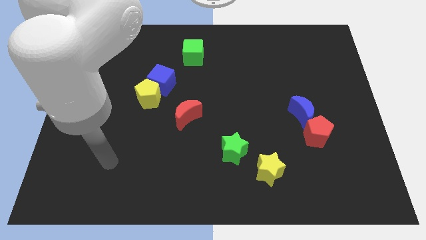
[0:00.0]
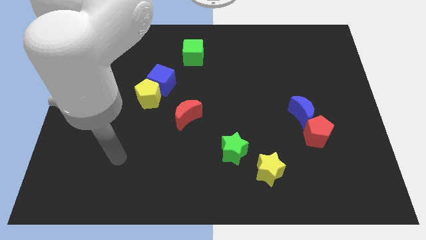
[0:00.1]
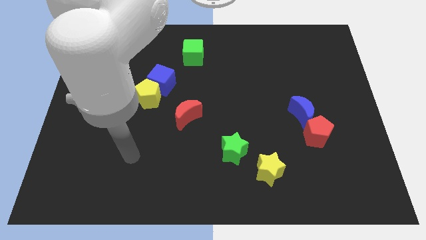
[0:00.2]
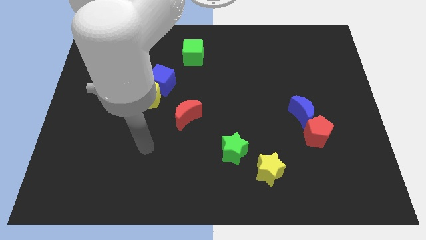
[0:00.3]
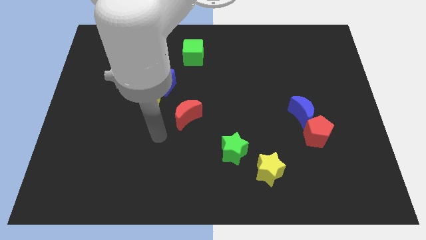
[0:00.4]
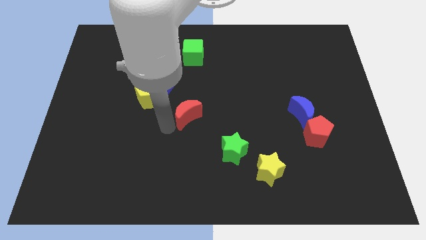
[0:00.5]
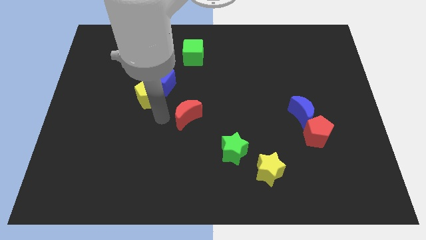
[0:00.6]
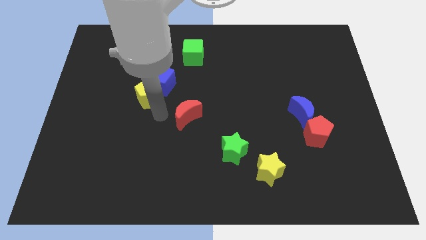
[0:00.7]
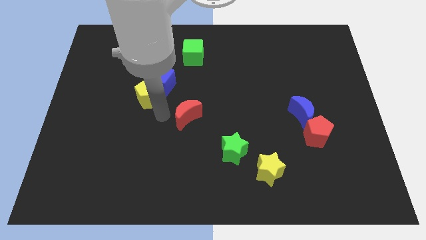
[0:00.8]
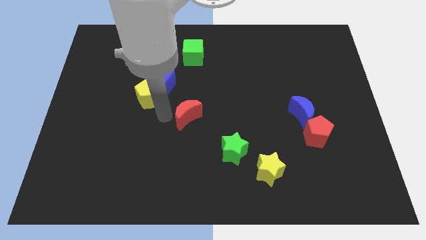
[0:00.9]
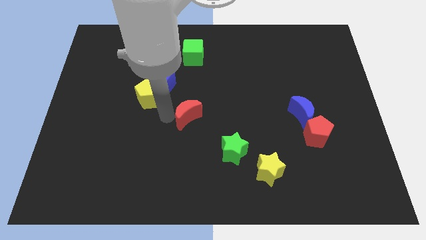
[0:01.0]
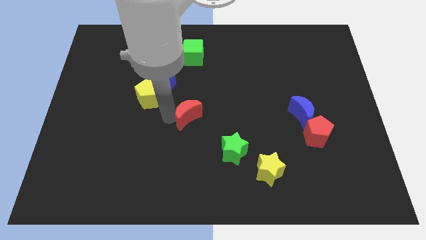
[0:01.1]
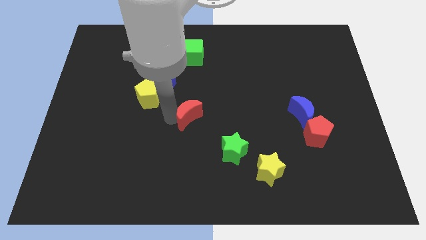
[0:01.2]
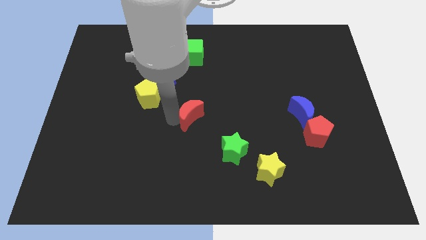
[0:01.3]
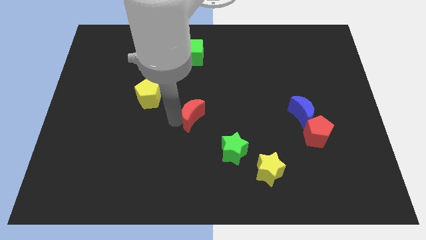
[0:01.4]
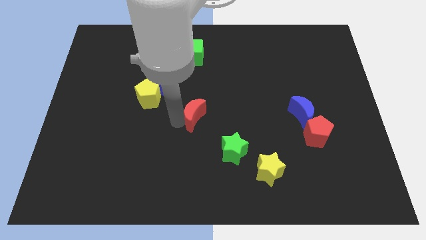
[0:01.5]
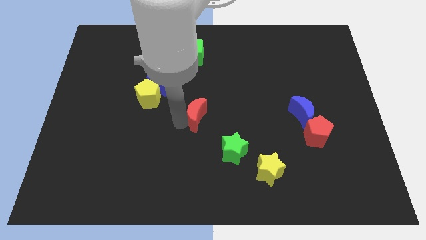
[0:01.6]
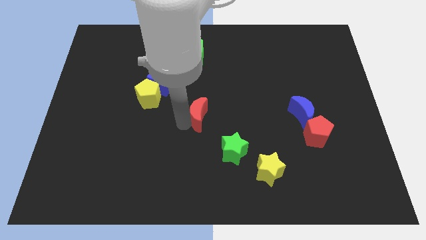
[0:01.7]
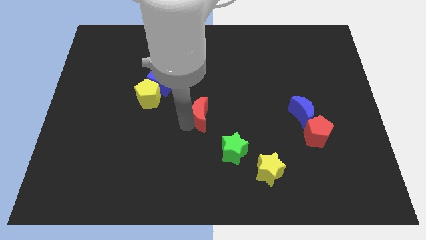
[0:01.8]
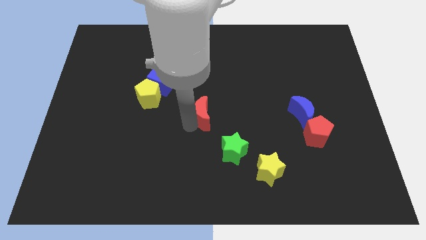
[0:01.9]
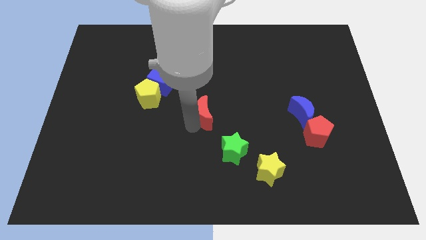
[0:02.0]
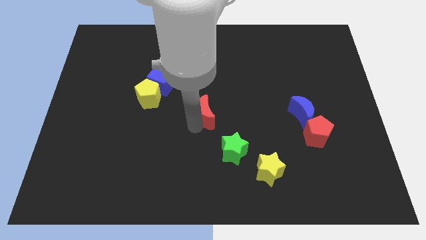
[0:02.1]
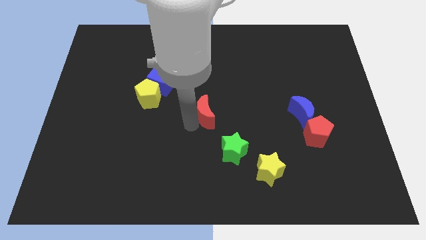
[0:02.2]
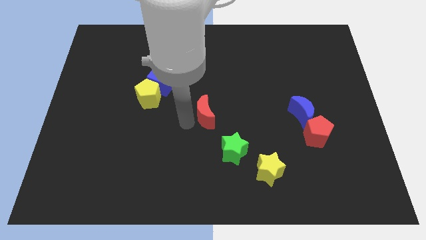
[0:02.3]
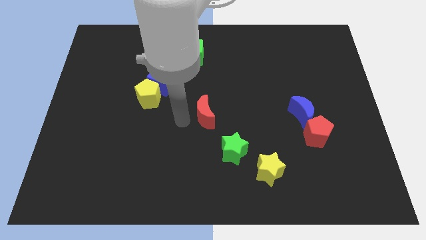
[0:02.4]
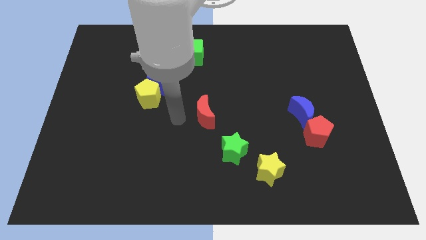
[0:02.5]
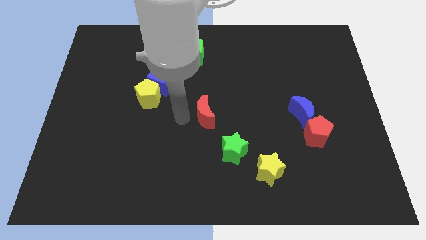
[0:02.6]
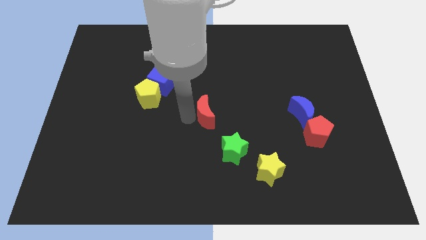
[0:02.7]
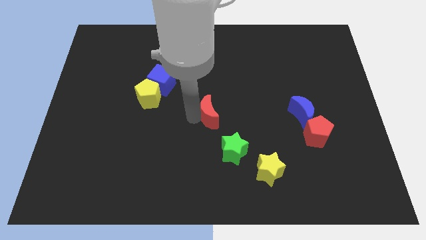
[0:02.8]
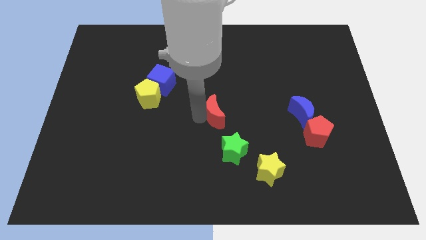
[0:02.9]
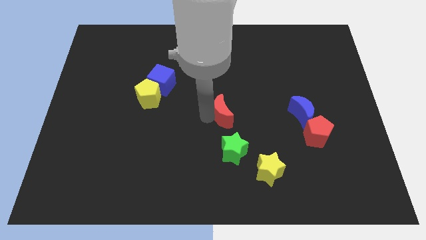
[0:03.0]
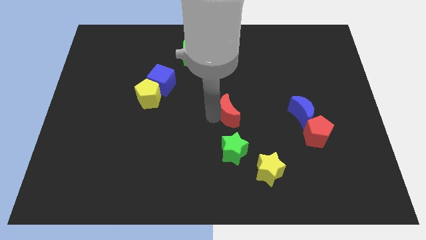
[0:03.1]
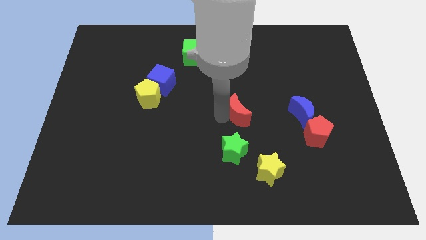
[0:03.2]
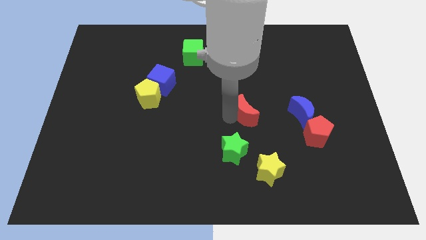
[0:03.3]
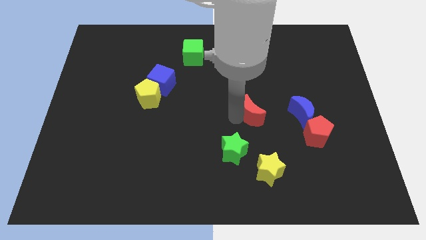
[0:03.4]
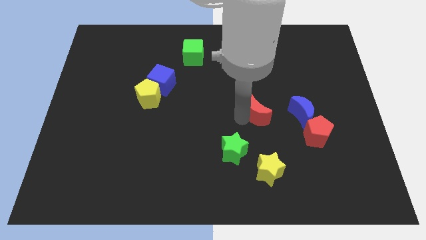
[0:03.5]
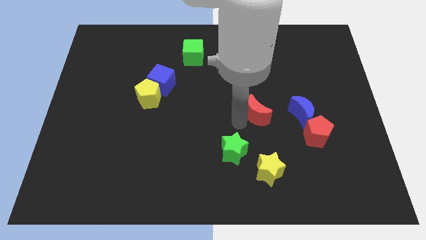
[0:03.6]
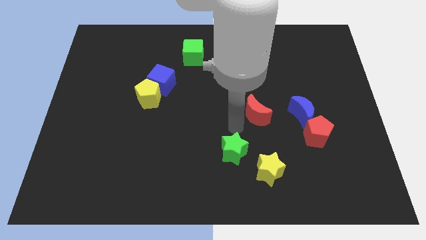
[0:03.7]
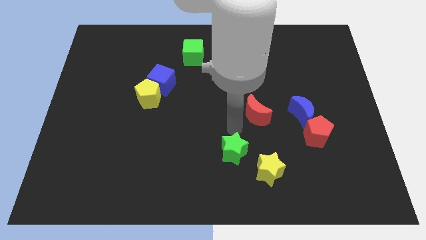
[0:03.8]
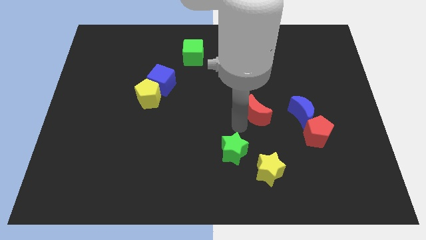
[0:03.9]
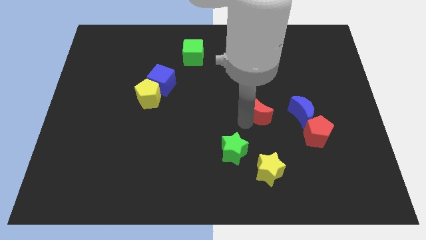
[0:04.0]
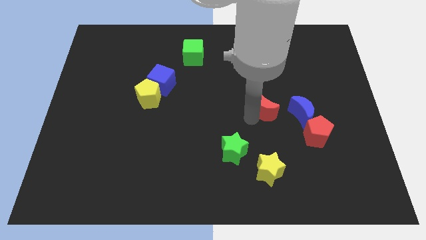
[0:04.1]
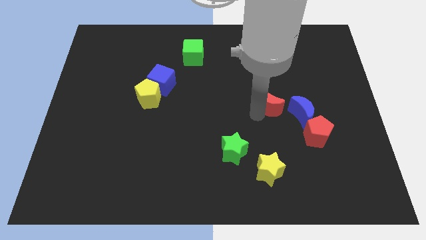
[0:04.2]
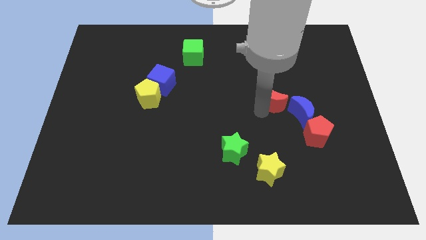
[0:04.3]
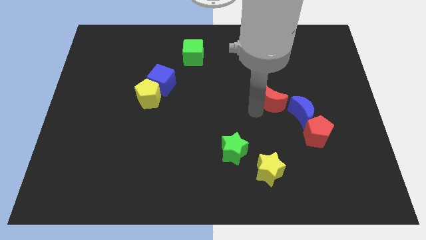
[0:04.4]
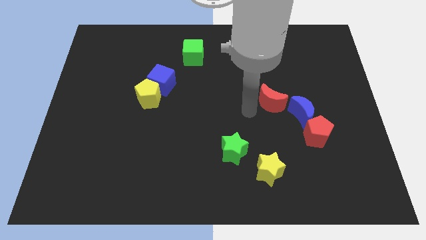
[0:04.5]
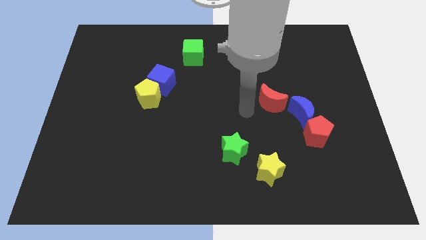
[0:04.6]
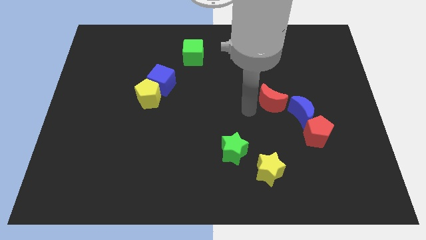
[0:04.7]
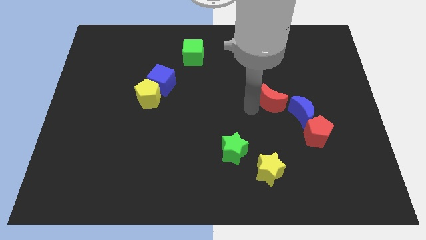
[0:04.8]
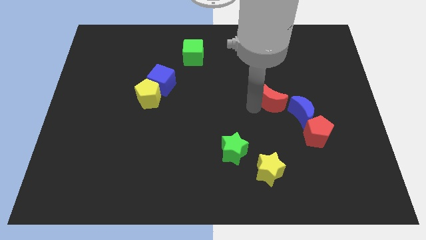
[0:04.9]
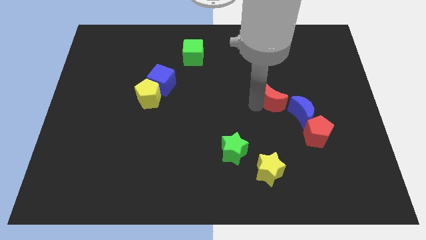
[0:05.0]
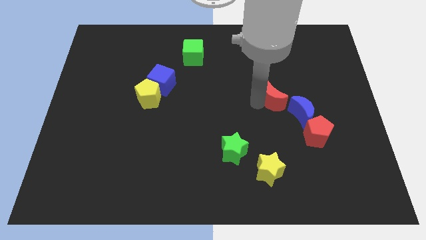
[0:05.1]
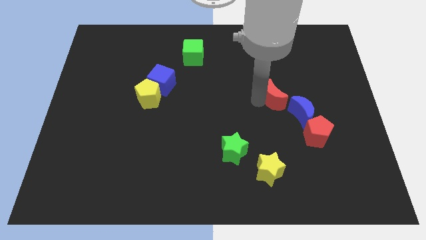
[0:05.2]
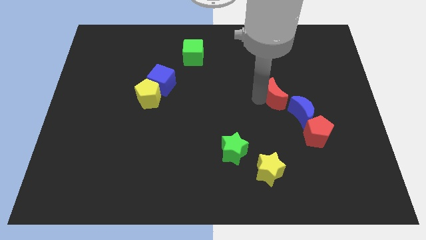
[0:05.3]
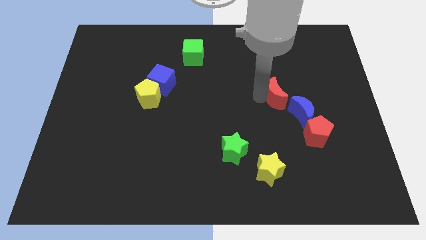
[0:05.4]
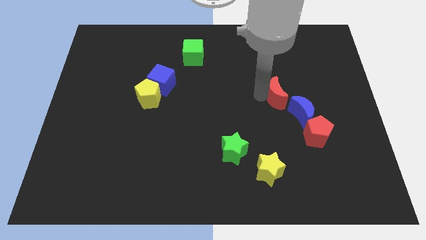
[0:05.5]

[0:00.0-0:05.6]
push the red moon to the right

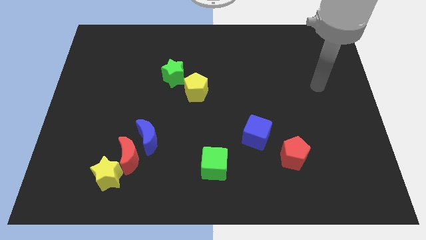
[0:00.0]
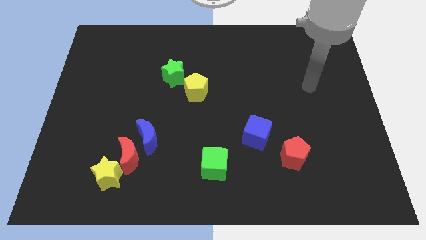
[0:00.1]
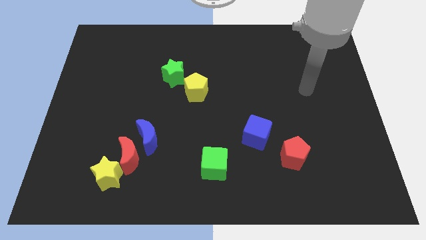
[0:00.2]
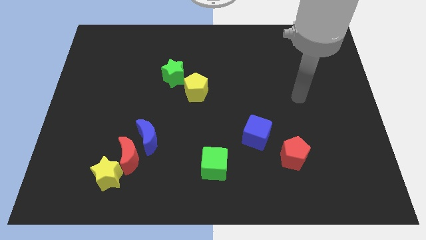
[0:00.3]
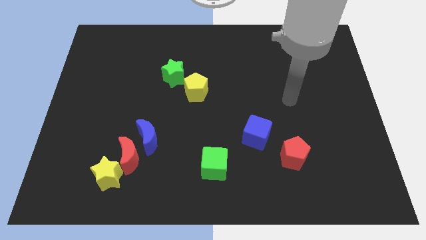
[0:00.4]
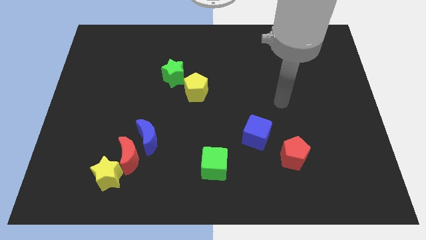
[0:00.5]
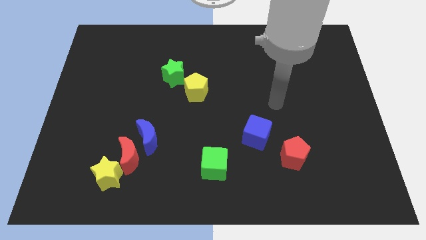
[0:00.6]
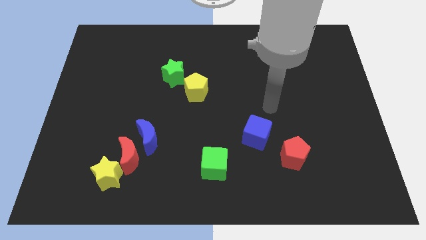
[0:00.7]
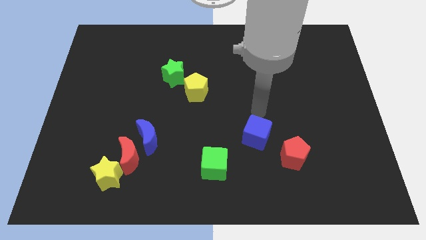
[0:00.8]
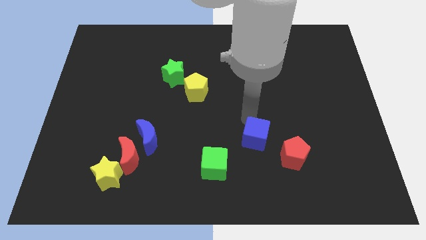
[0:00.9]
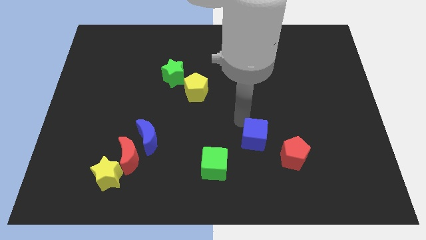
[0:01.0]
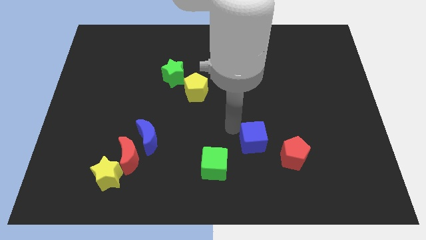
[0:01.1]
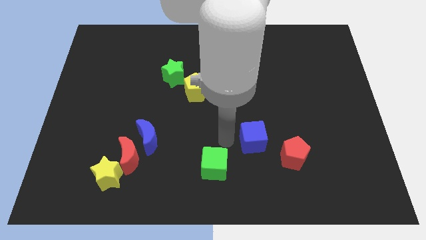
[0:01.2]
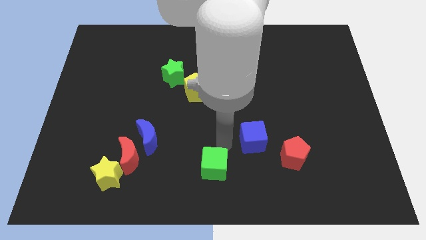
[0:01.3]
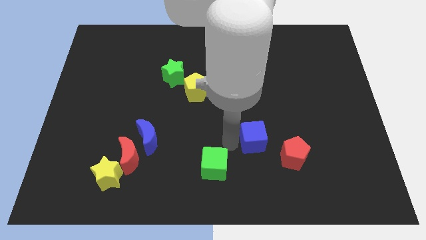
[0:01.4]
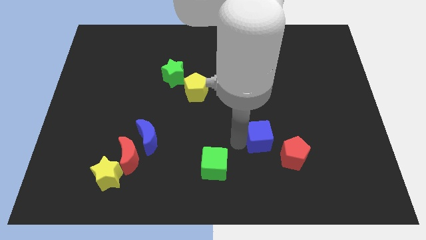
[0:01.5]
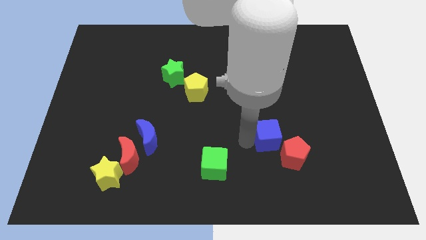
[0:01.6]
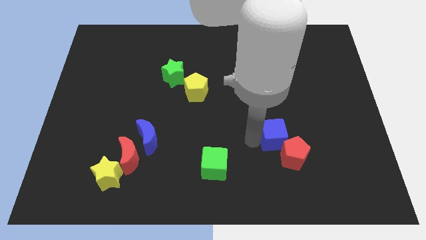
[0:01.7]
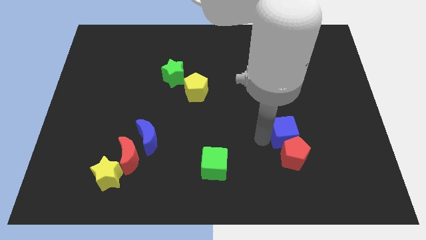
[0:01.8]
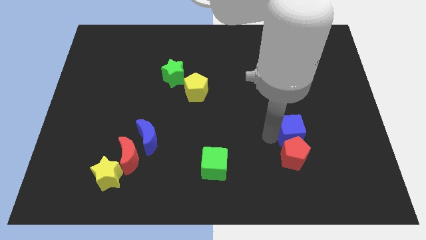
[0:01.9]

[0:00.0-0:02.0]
move the blue cube a bit to the right

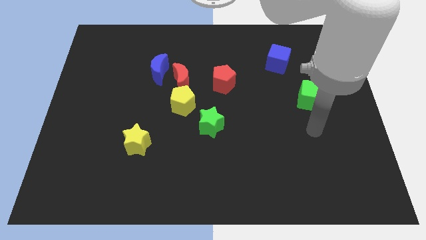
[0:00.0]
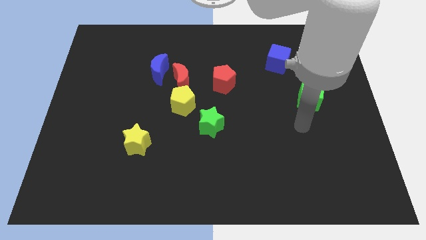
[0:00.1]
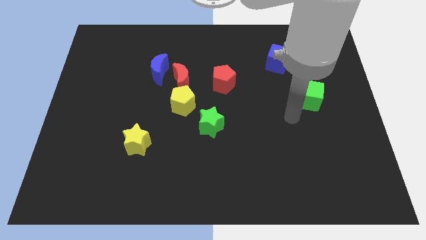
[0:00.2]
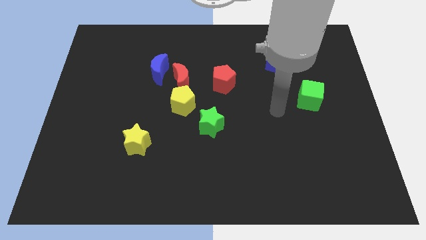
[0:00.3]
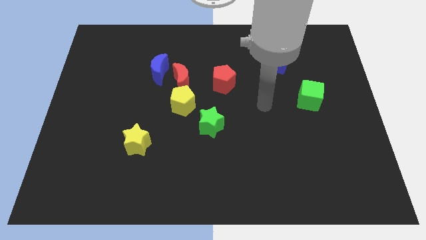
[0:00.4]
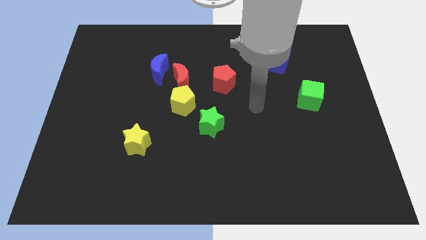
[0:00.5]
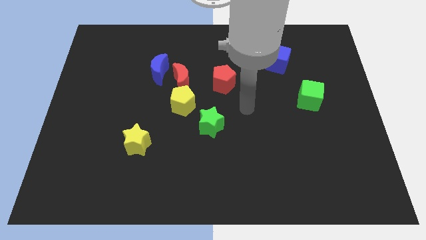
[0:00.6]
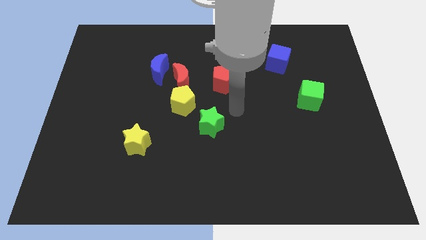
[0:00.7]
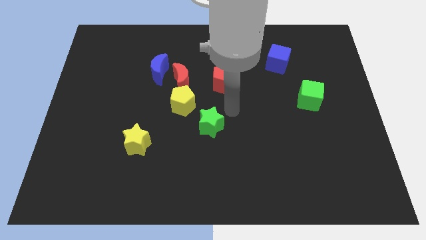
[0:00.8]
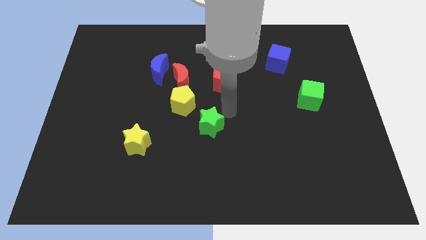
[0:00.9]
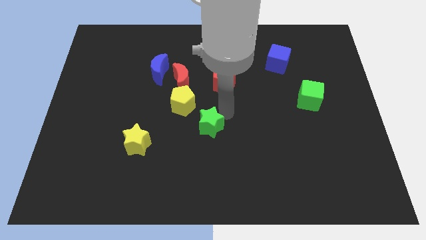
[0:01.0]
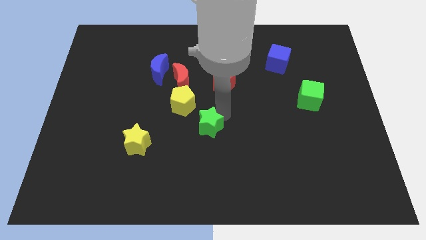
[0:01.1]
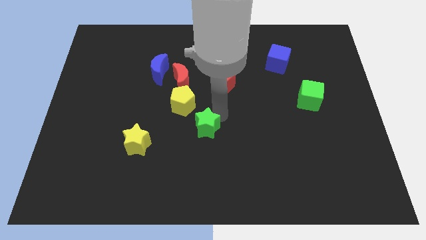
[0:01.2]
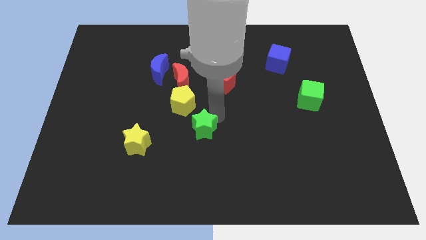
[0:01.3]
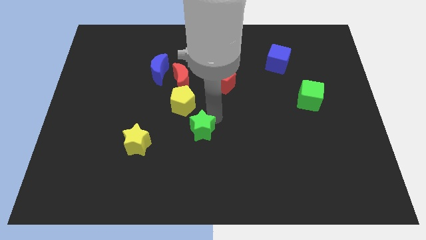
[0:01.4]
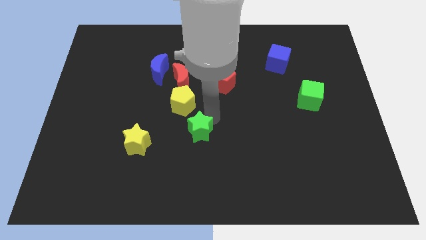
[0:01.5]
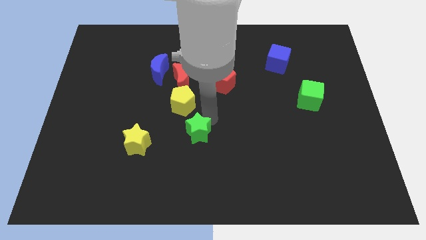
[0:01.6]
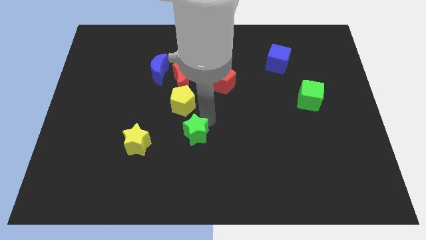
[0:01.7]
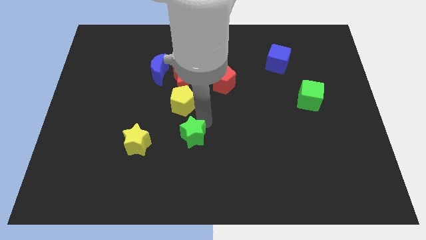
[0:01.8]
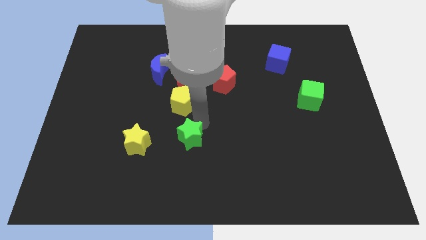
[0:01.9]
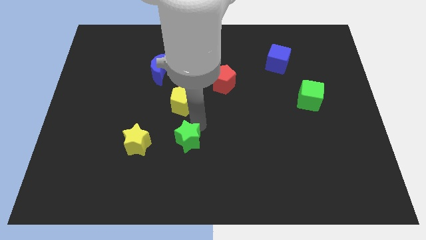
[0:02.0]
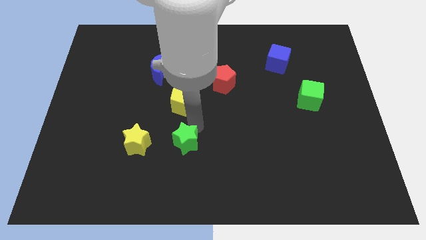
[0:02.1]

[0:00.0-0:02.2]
slightly move the green star down and then left
